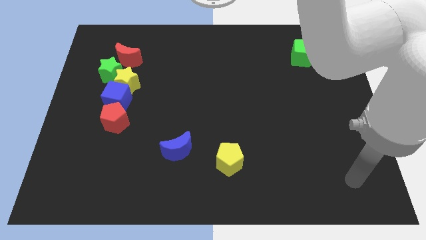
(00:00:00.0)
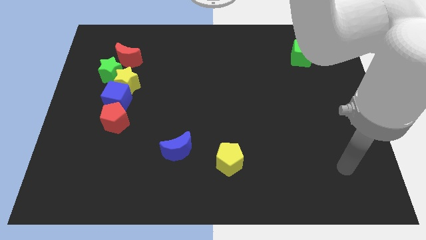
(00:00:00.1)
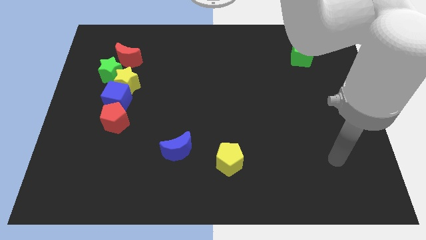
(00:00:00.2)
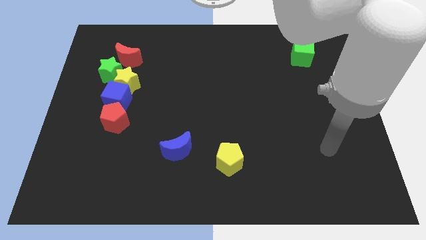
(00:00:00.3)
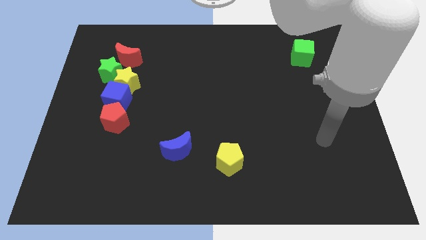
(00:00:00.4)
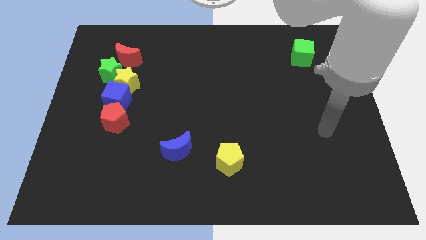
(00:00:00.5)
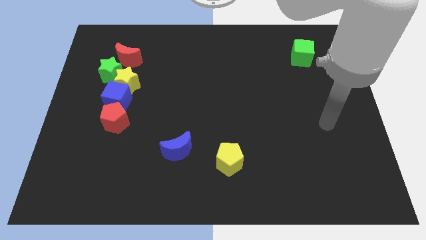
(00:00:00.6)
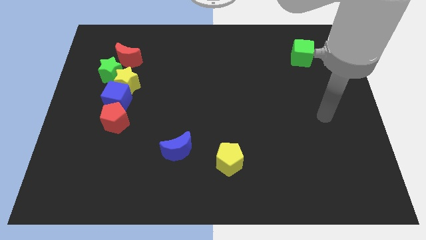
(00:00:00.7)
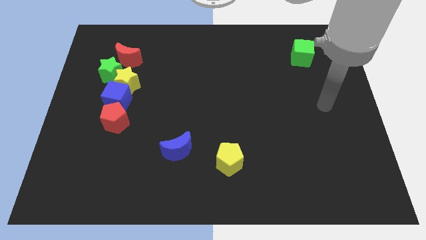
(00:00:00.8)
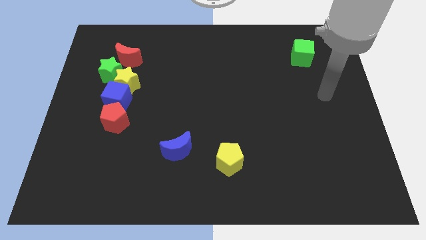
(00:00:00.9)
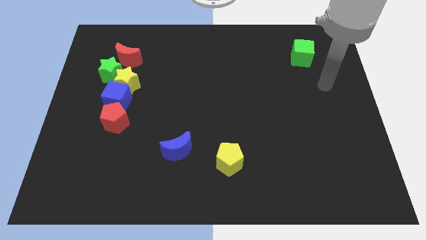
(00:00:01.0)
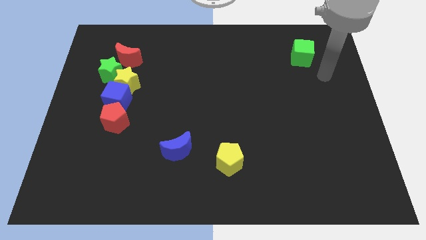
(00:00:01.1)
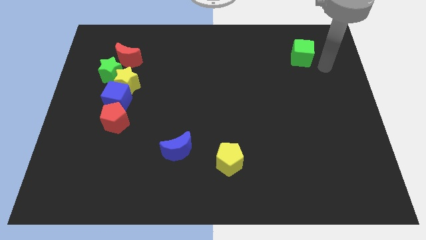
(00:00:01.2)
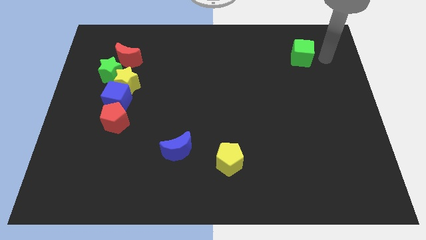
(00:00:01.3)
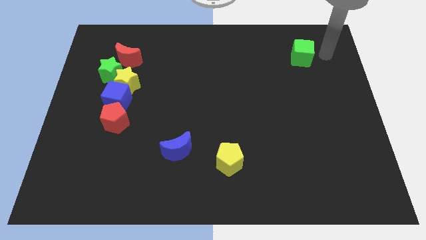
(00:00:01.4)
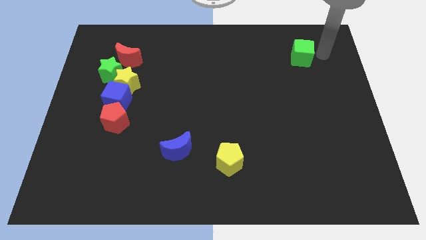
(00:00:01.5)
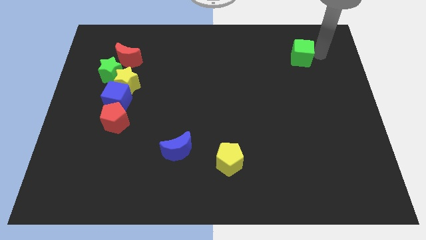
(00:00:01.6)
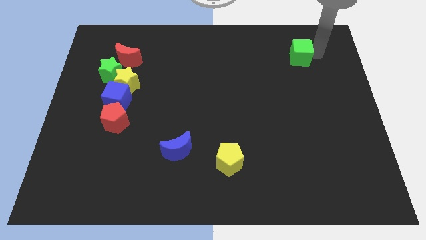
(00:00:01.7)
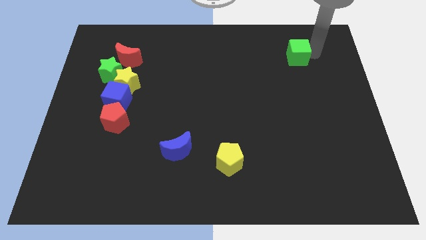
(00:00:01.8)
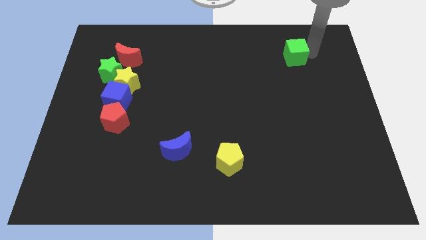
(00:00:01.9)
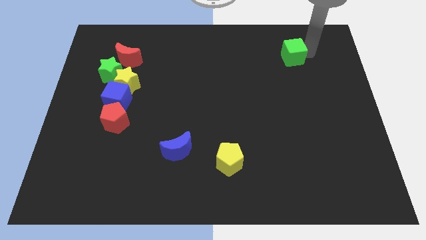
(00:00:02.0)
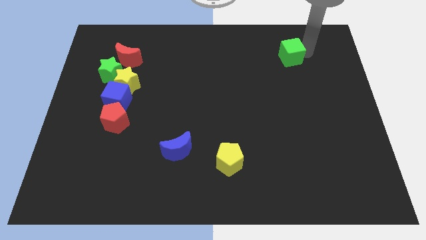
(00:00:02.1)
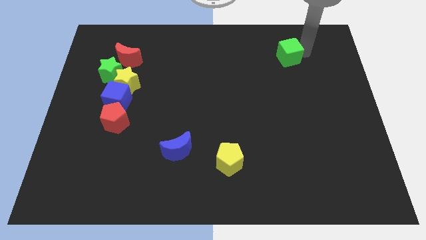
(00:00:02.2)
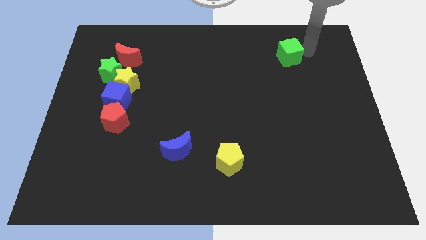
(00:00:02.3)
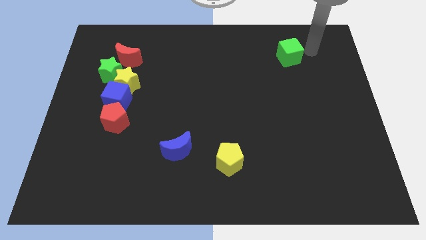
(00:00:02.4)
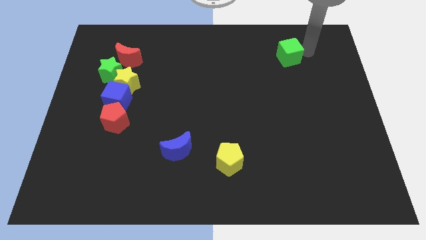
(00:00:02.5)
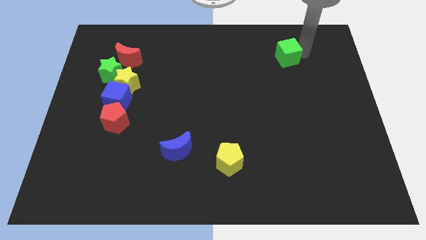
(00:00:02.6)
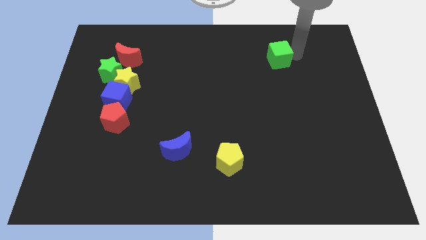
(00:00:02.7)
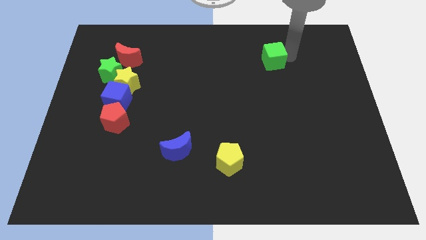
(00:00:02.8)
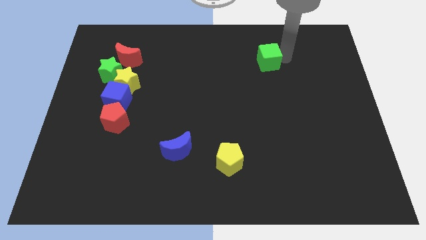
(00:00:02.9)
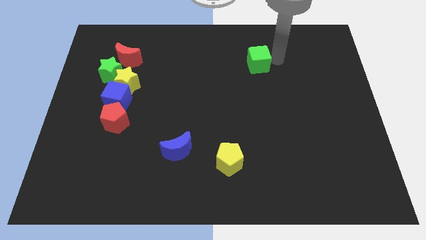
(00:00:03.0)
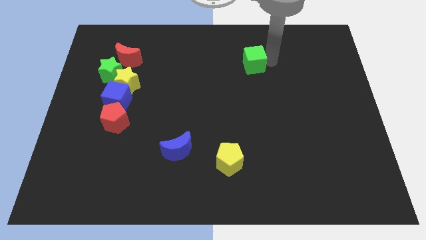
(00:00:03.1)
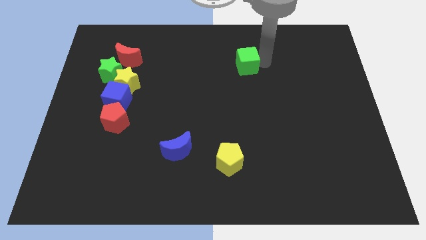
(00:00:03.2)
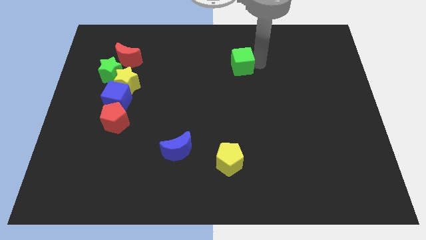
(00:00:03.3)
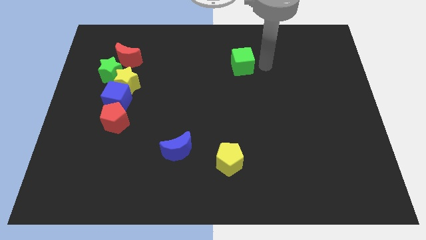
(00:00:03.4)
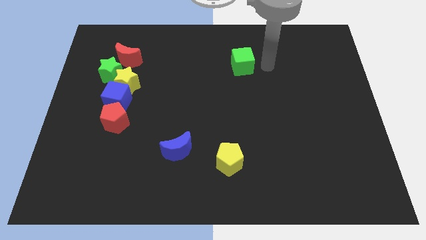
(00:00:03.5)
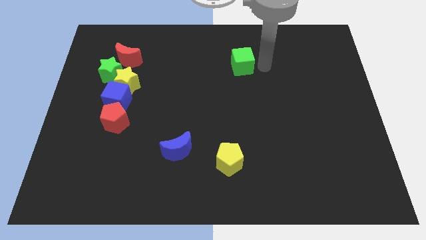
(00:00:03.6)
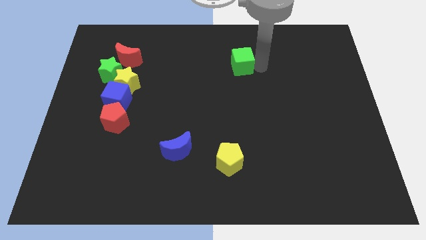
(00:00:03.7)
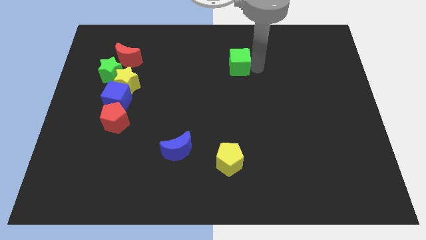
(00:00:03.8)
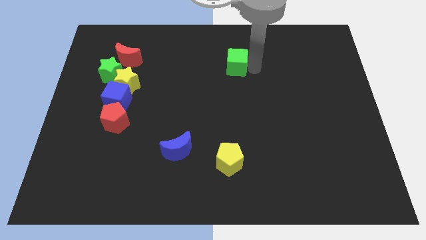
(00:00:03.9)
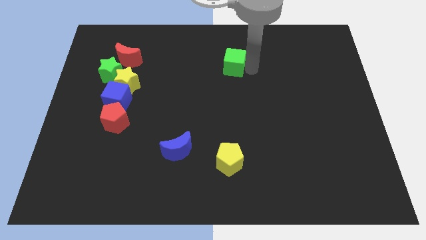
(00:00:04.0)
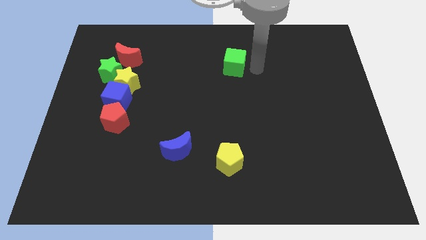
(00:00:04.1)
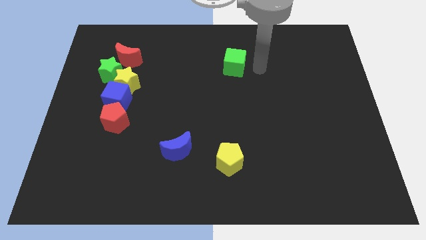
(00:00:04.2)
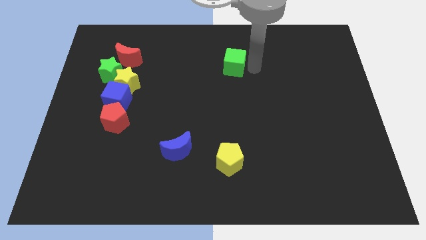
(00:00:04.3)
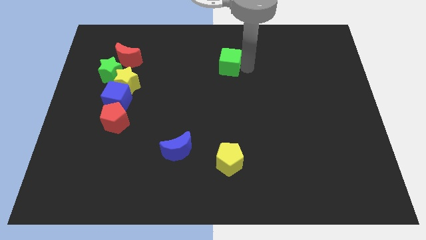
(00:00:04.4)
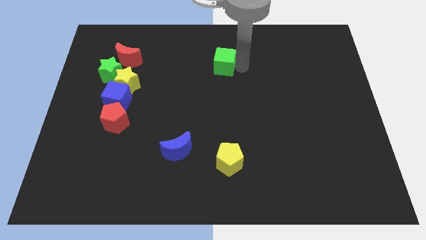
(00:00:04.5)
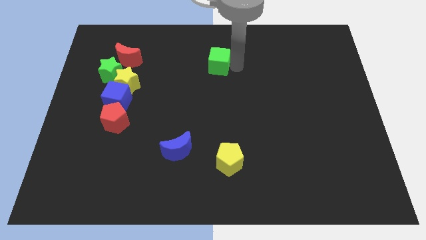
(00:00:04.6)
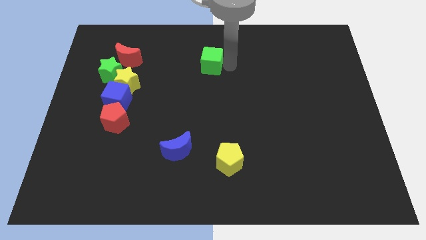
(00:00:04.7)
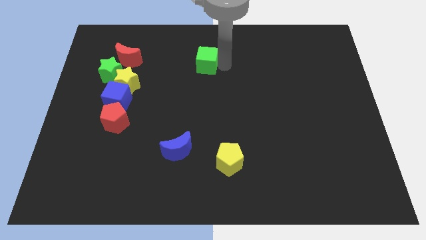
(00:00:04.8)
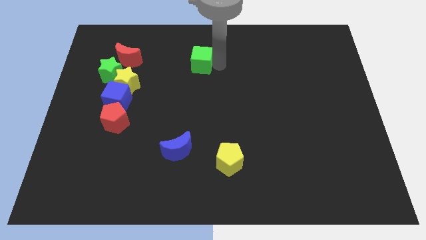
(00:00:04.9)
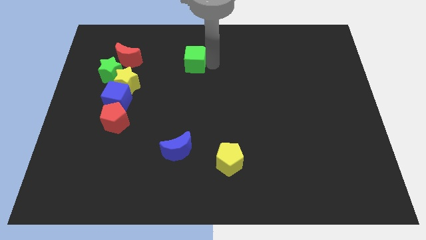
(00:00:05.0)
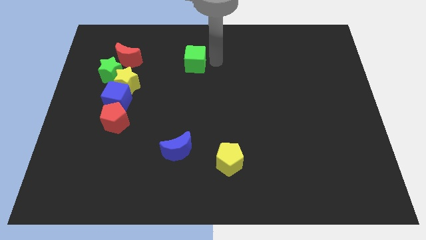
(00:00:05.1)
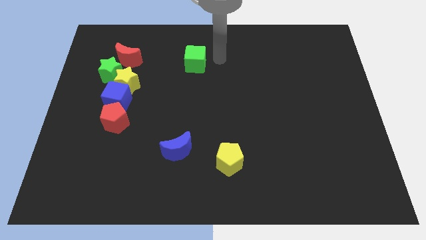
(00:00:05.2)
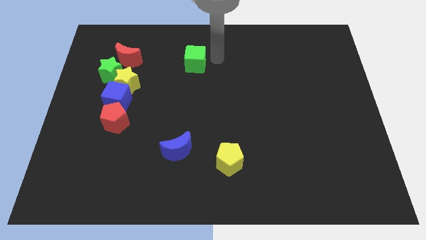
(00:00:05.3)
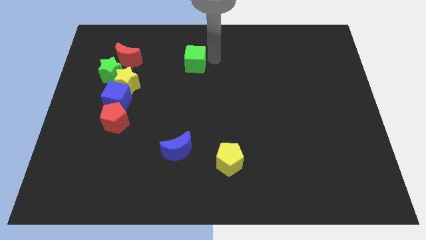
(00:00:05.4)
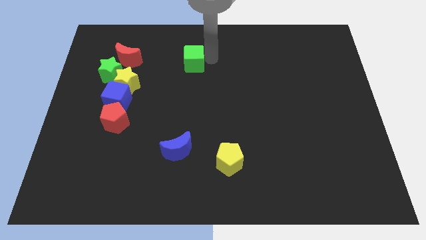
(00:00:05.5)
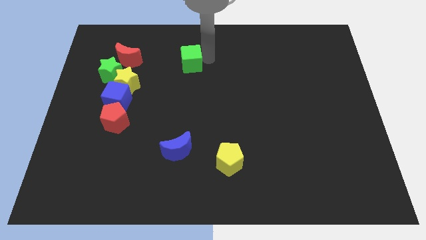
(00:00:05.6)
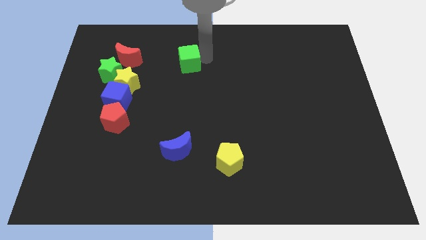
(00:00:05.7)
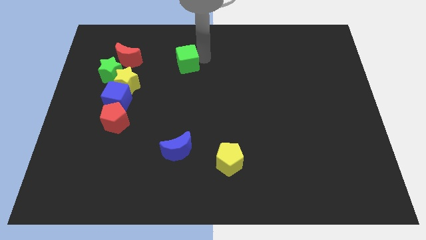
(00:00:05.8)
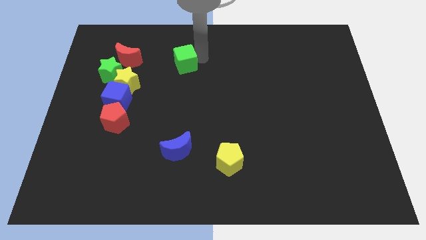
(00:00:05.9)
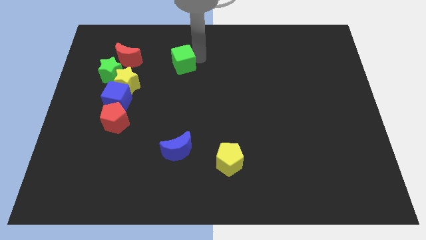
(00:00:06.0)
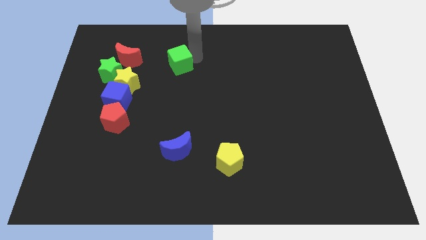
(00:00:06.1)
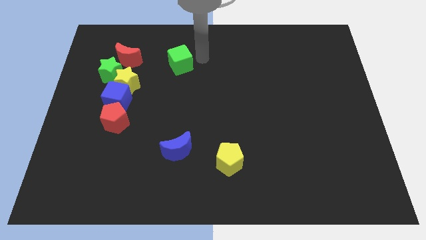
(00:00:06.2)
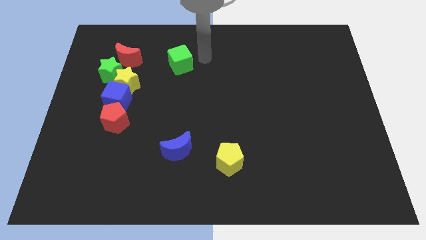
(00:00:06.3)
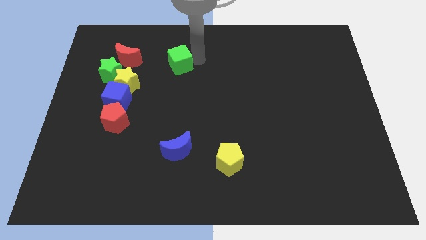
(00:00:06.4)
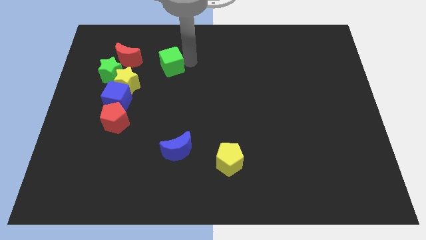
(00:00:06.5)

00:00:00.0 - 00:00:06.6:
slide the green cube to the top right side of the yellow star
